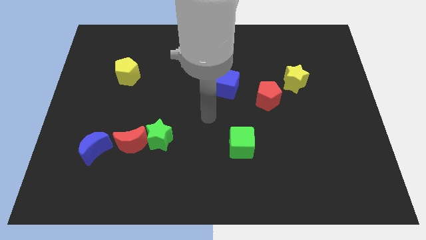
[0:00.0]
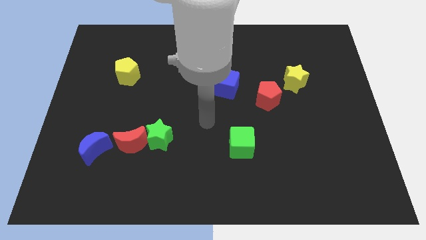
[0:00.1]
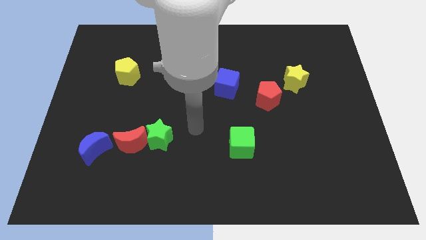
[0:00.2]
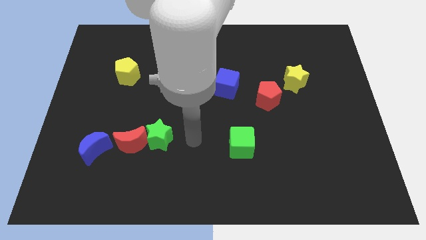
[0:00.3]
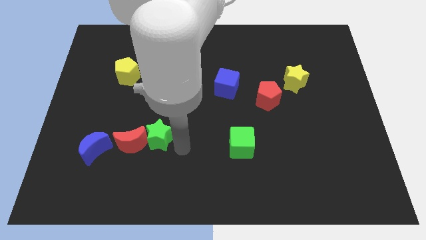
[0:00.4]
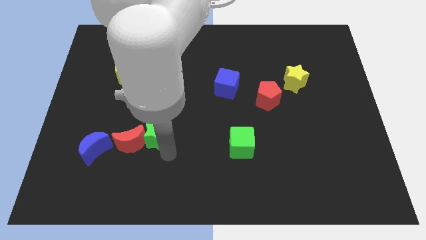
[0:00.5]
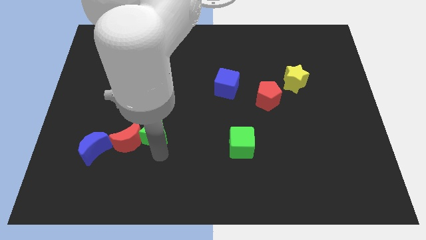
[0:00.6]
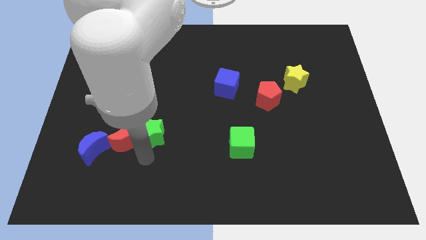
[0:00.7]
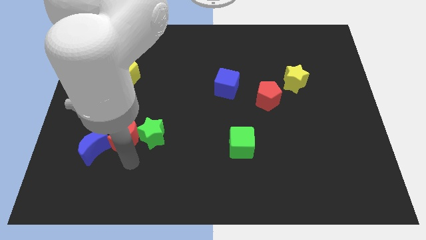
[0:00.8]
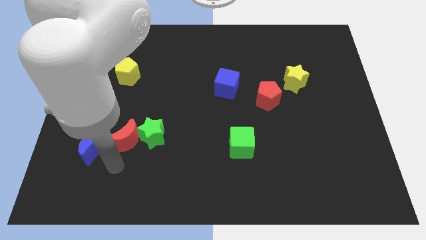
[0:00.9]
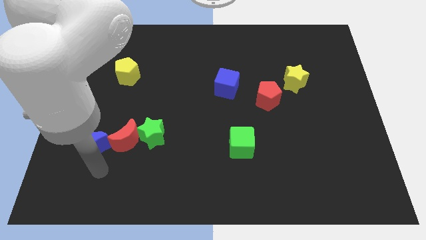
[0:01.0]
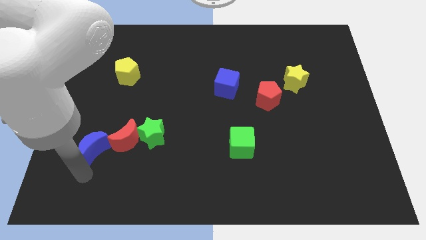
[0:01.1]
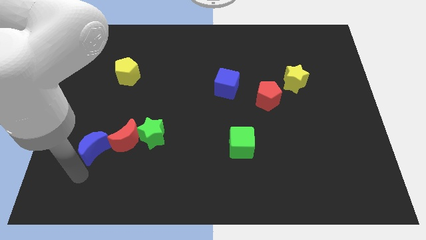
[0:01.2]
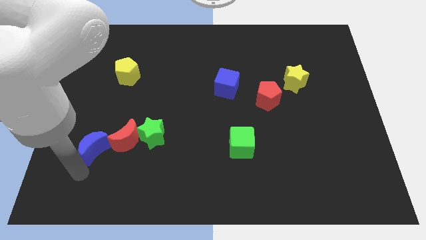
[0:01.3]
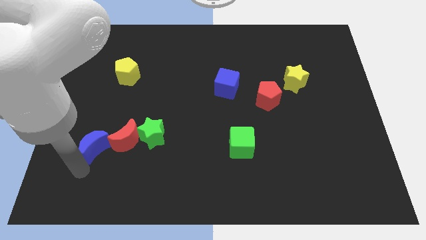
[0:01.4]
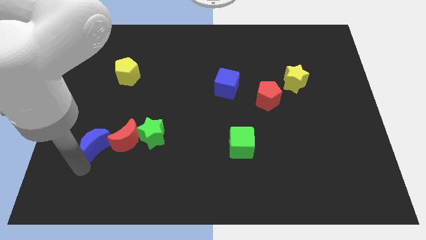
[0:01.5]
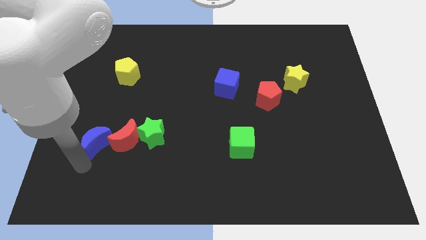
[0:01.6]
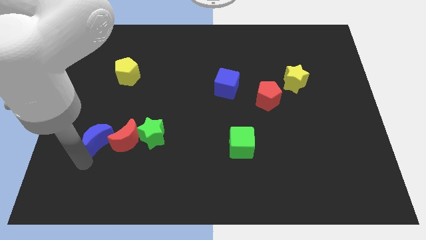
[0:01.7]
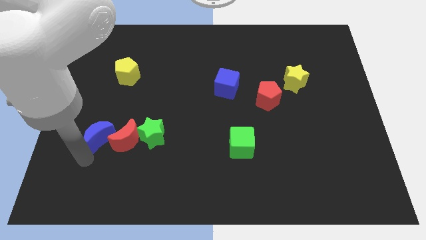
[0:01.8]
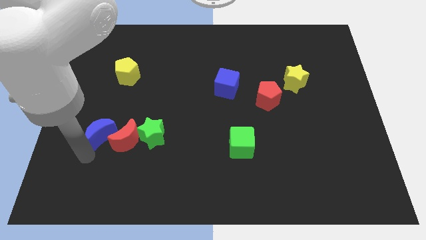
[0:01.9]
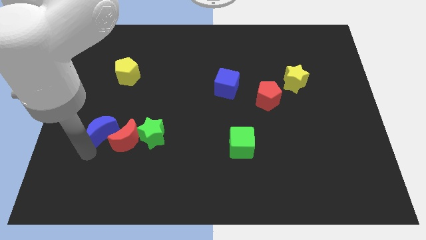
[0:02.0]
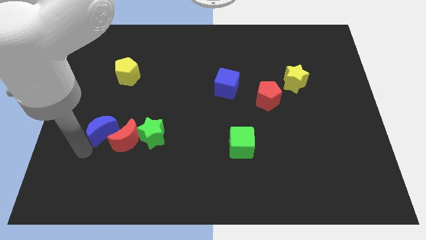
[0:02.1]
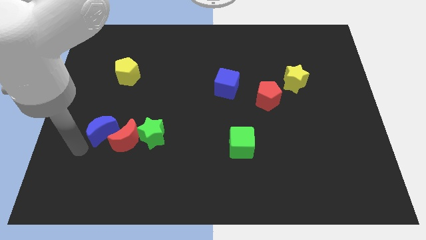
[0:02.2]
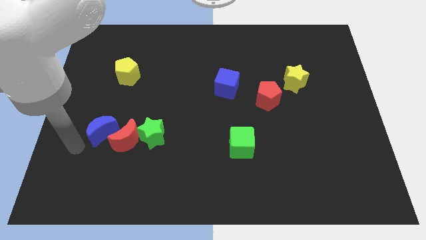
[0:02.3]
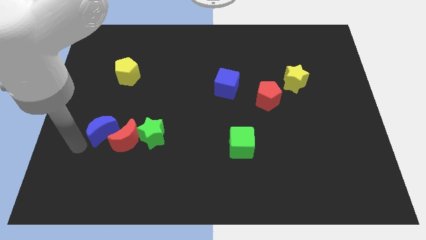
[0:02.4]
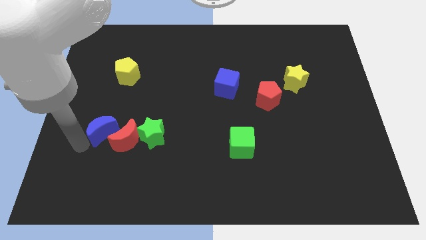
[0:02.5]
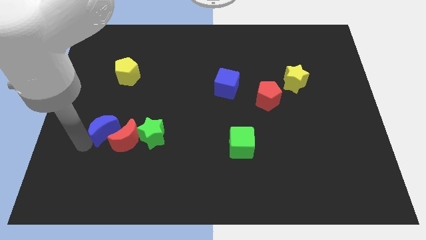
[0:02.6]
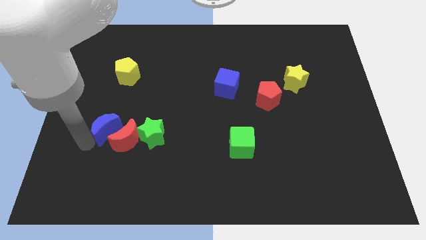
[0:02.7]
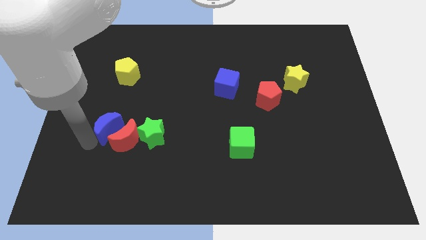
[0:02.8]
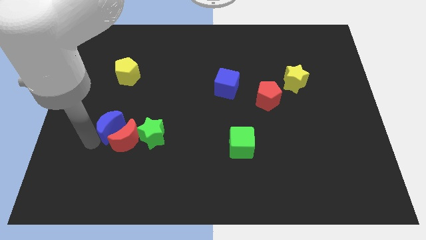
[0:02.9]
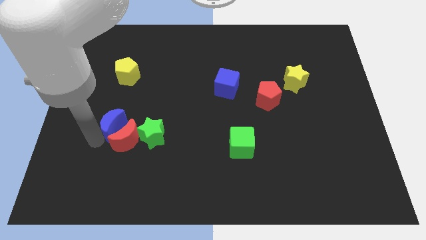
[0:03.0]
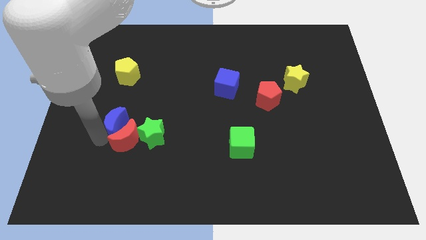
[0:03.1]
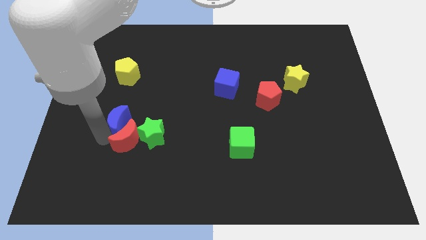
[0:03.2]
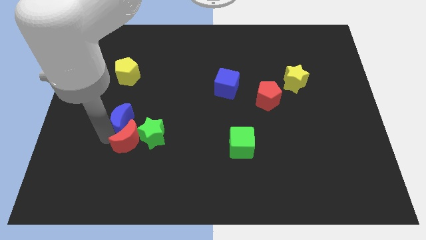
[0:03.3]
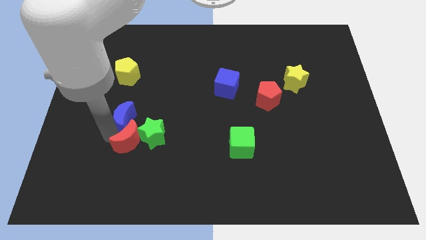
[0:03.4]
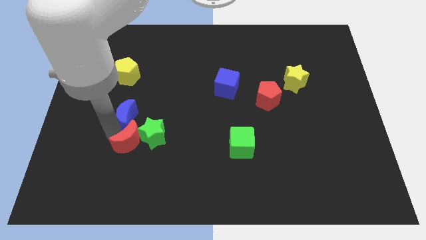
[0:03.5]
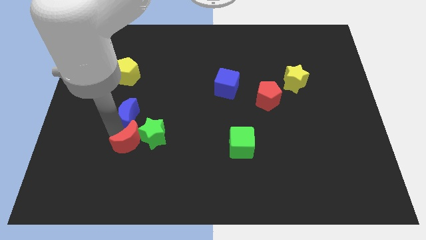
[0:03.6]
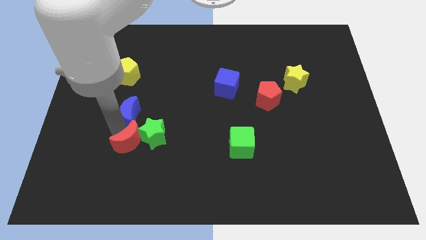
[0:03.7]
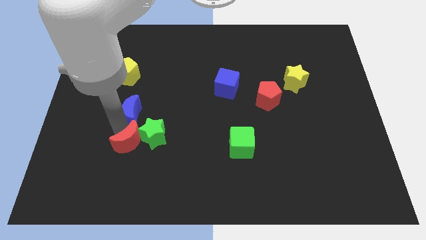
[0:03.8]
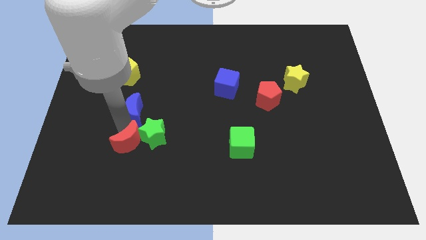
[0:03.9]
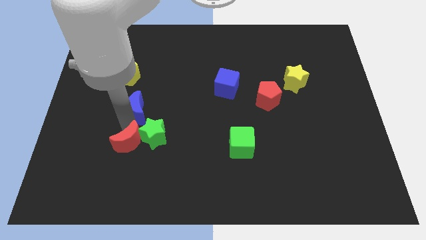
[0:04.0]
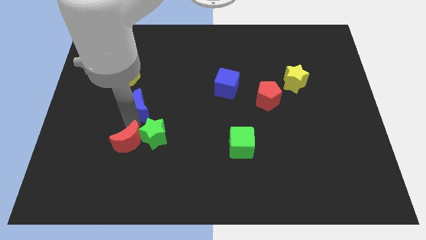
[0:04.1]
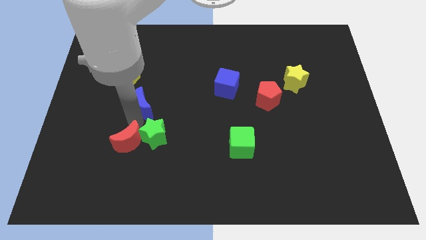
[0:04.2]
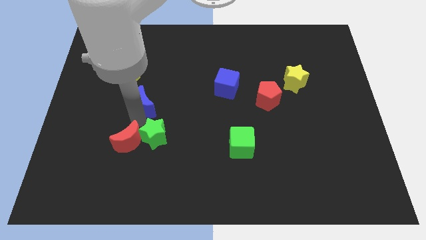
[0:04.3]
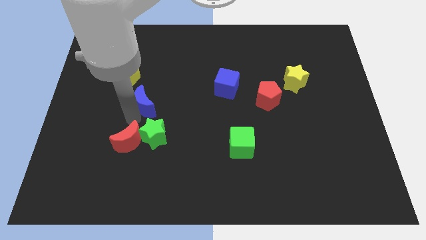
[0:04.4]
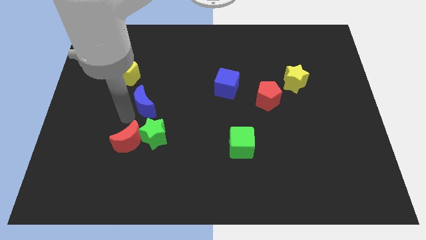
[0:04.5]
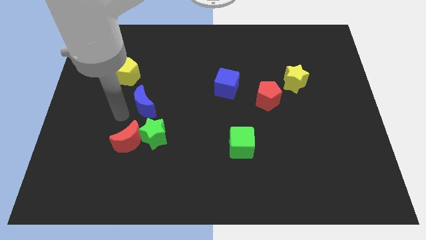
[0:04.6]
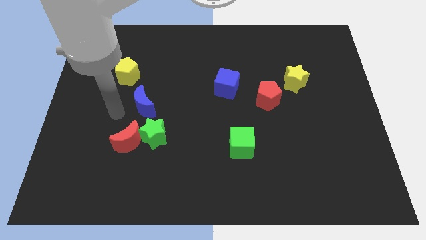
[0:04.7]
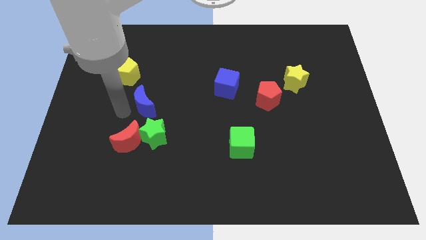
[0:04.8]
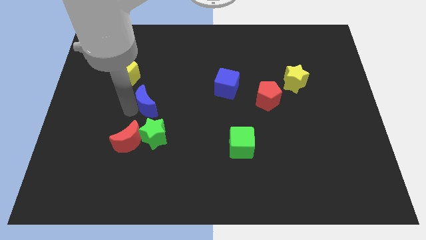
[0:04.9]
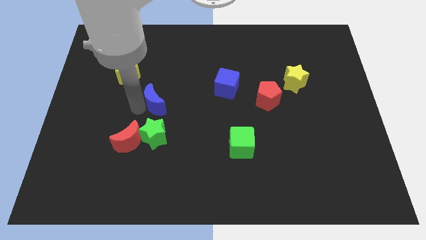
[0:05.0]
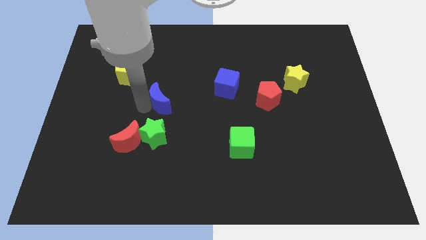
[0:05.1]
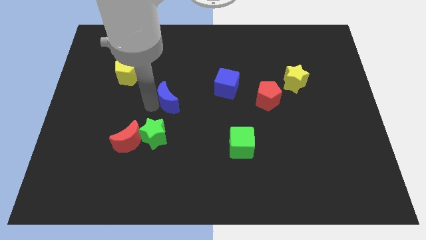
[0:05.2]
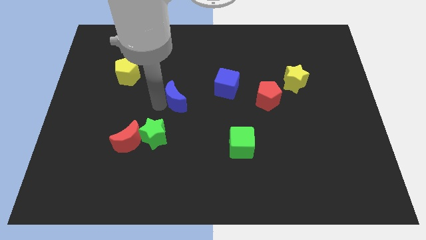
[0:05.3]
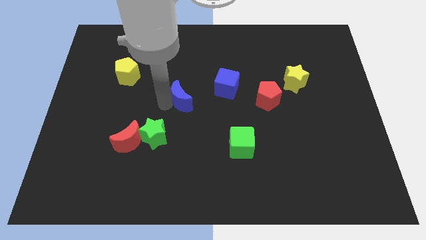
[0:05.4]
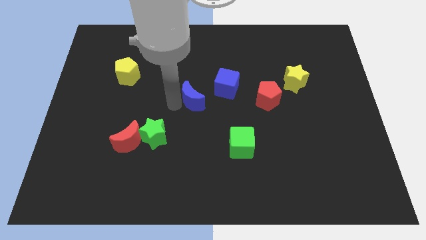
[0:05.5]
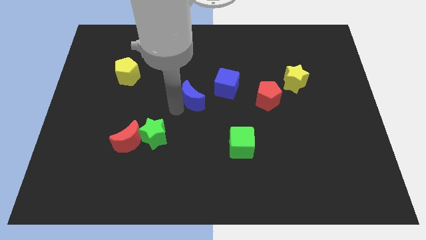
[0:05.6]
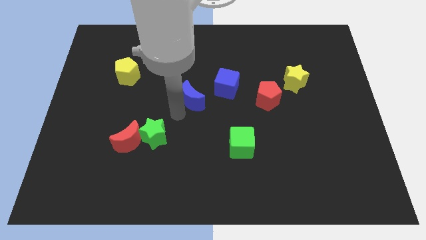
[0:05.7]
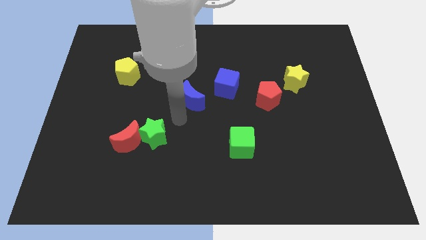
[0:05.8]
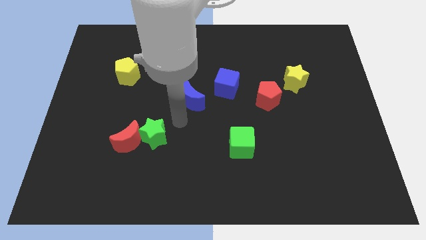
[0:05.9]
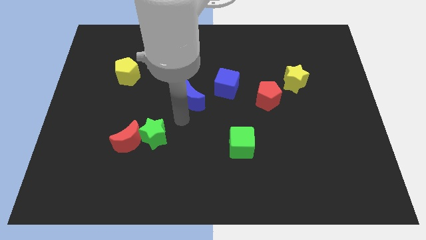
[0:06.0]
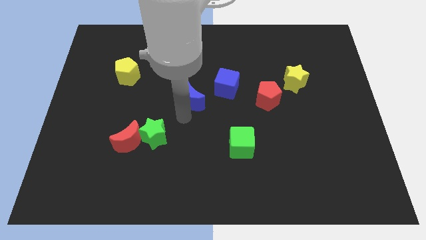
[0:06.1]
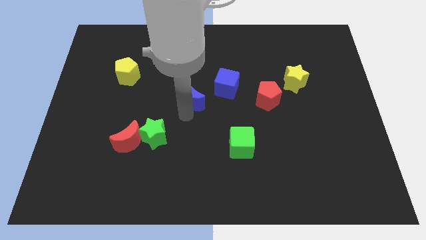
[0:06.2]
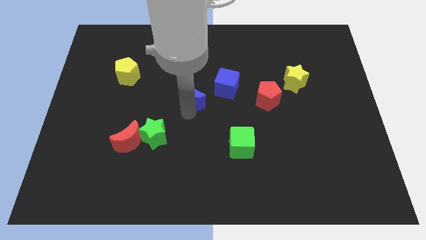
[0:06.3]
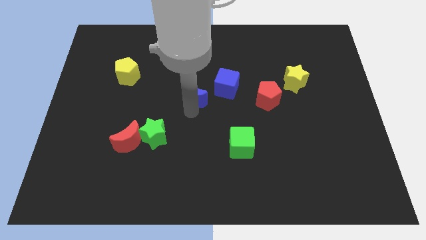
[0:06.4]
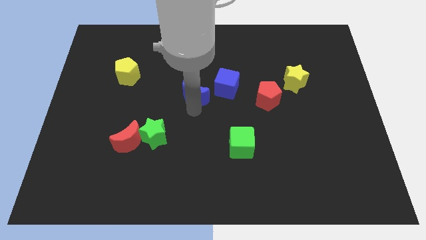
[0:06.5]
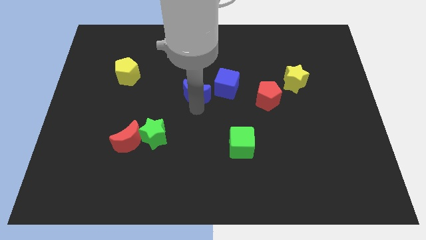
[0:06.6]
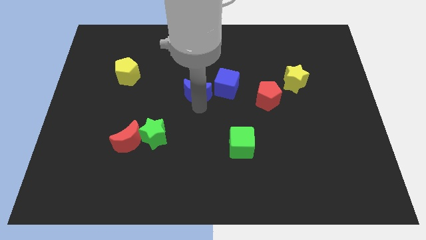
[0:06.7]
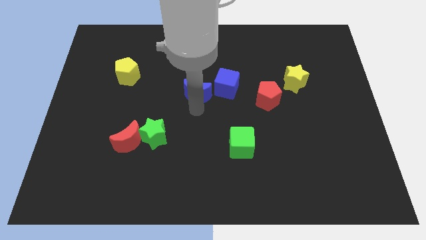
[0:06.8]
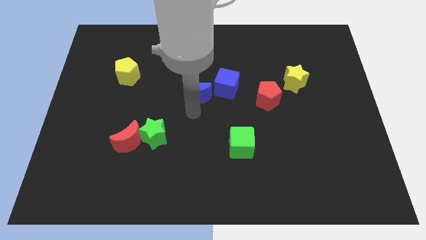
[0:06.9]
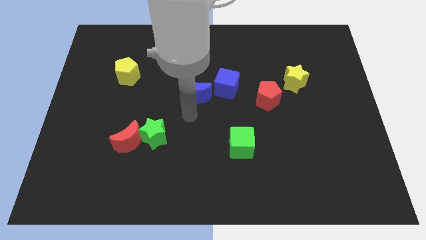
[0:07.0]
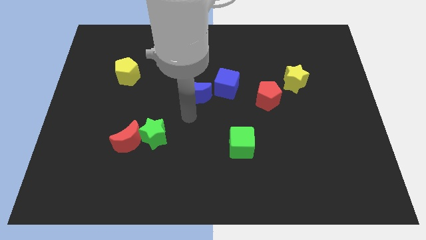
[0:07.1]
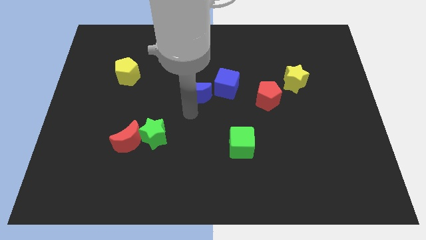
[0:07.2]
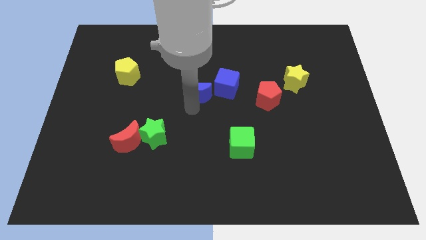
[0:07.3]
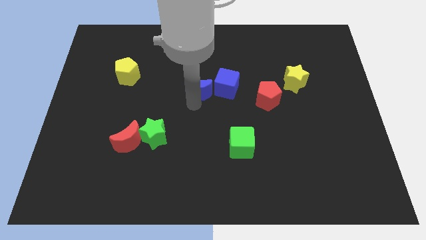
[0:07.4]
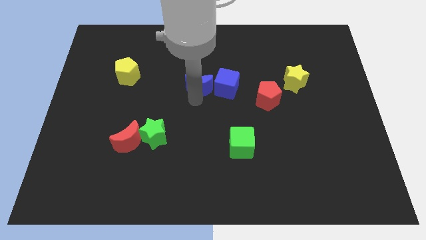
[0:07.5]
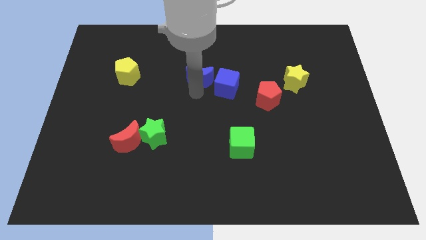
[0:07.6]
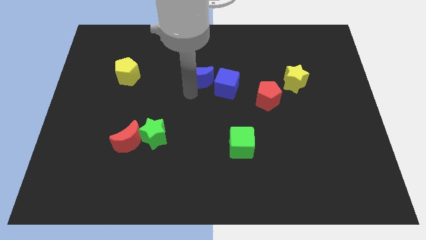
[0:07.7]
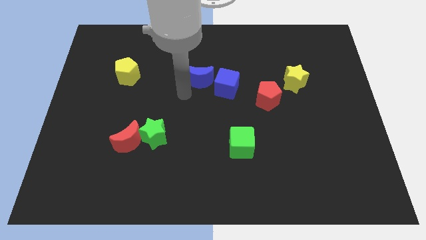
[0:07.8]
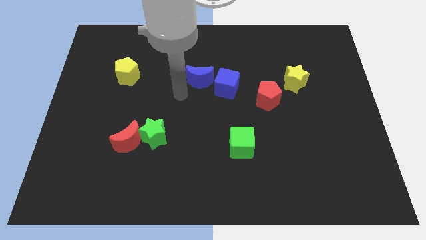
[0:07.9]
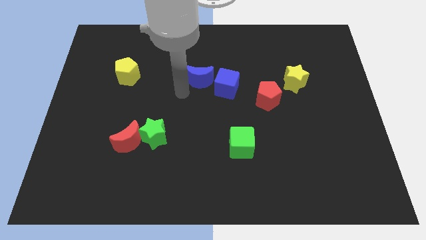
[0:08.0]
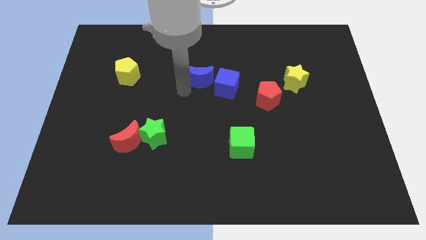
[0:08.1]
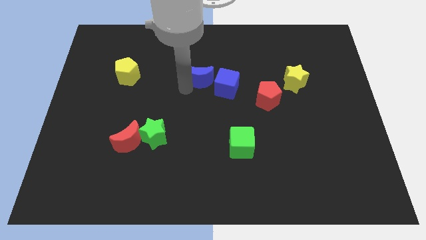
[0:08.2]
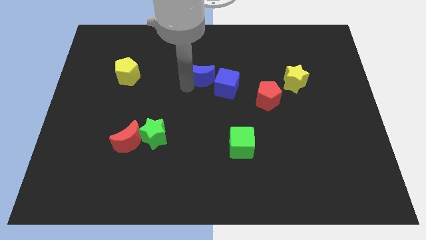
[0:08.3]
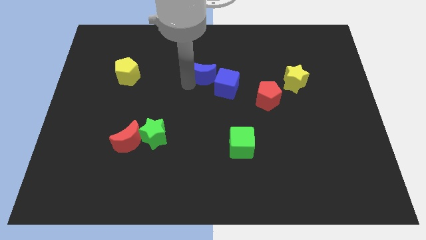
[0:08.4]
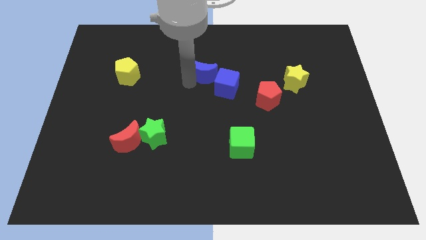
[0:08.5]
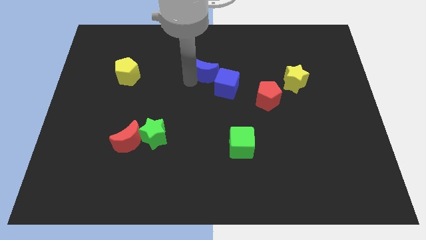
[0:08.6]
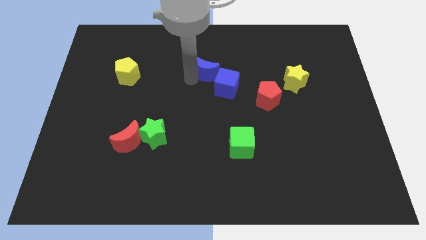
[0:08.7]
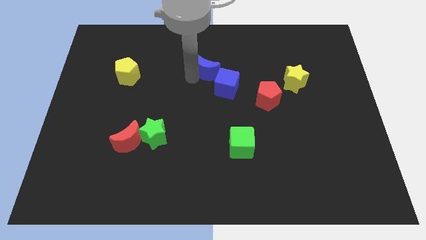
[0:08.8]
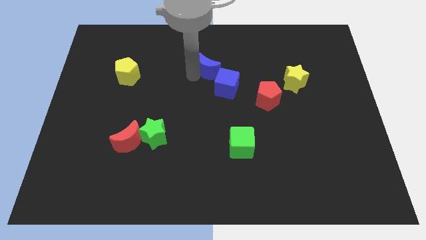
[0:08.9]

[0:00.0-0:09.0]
push the blue moon above the blue cube
